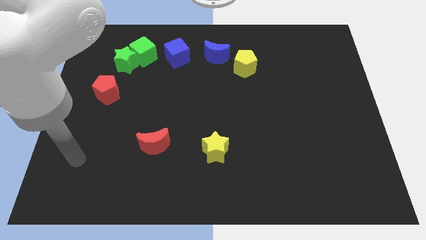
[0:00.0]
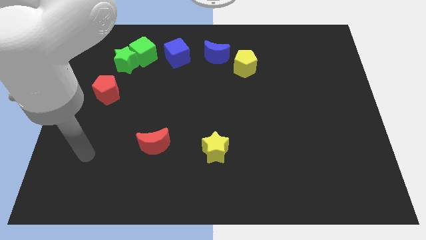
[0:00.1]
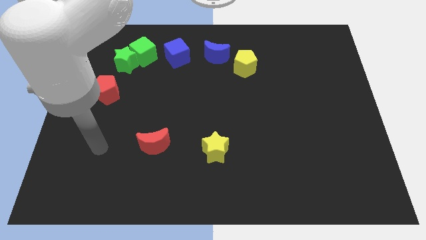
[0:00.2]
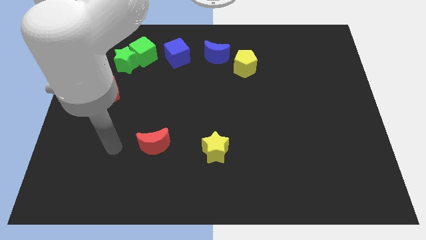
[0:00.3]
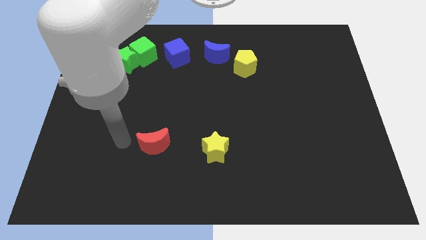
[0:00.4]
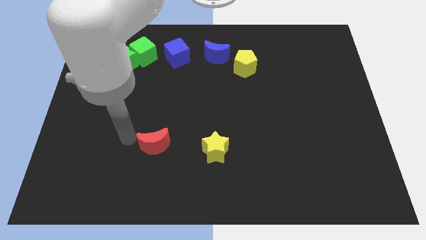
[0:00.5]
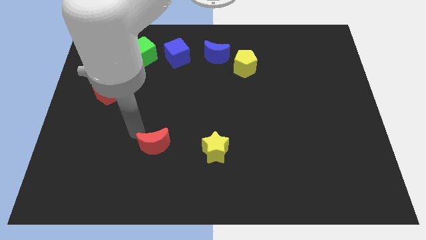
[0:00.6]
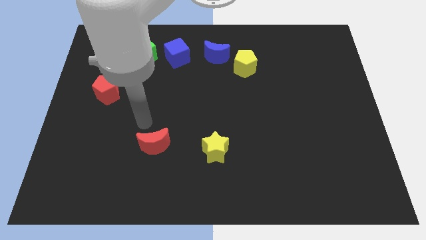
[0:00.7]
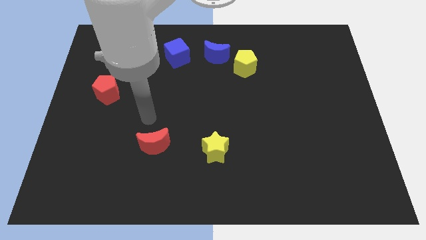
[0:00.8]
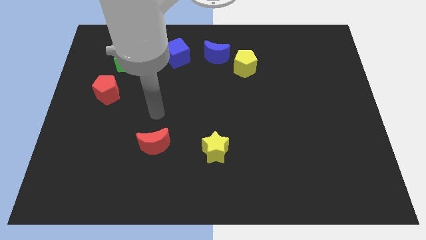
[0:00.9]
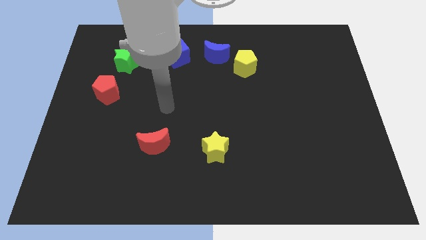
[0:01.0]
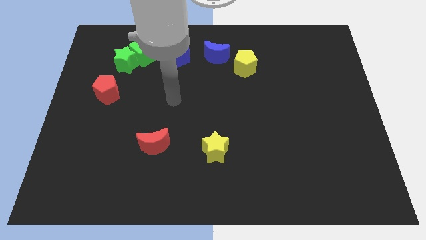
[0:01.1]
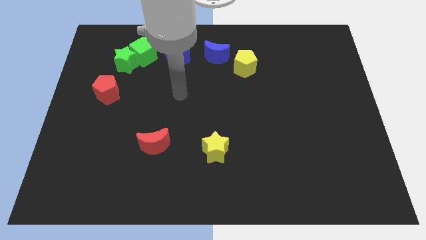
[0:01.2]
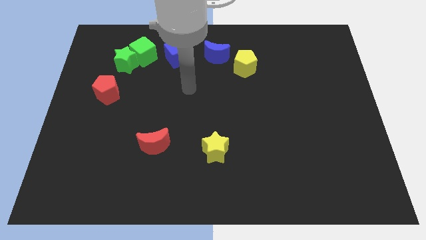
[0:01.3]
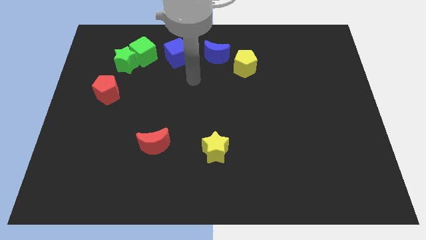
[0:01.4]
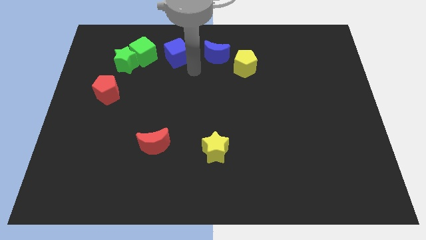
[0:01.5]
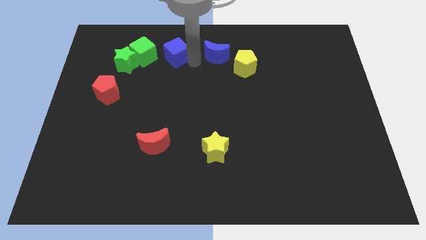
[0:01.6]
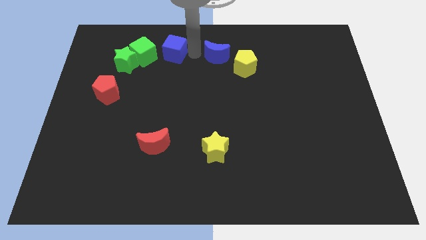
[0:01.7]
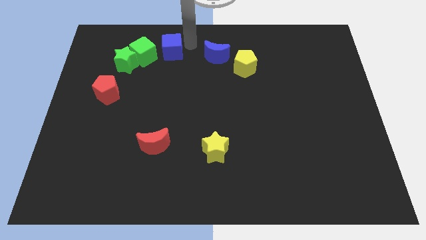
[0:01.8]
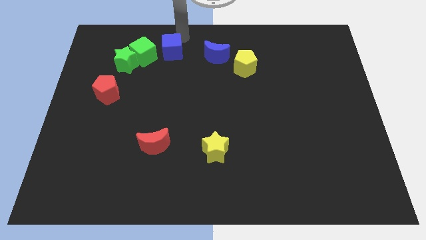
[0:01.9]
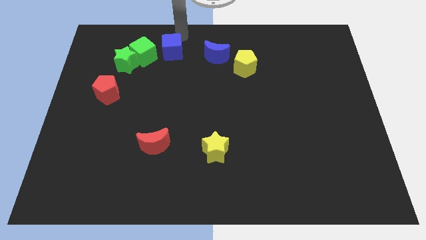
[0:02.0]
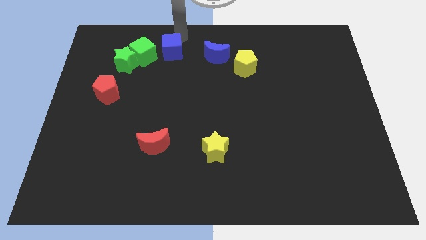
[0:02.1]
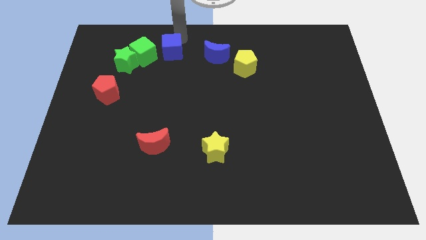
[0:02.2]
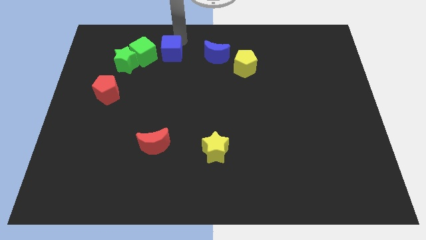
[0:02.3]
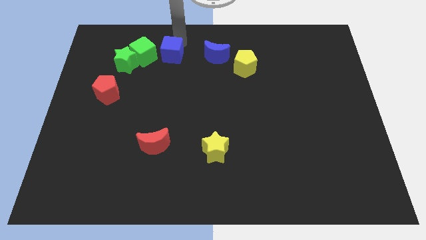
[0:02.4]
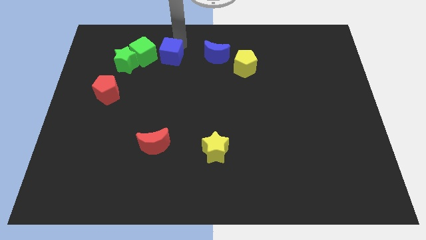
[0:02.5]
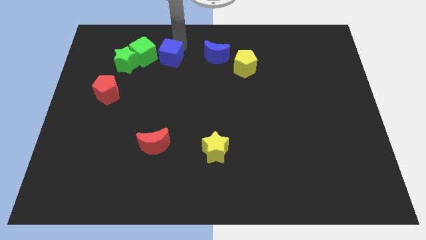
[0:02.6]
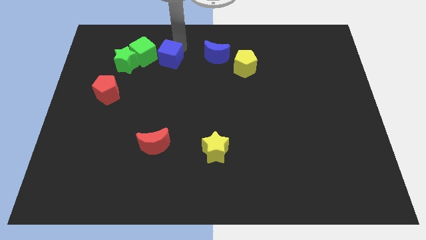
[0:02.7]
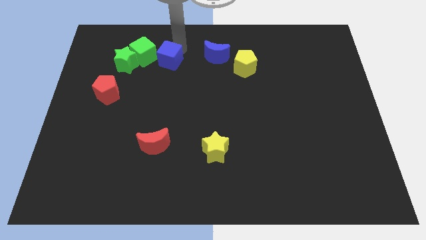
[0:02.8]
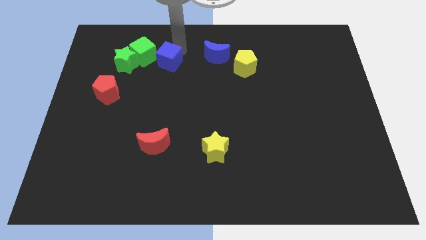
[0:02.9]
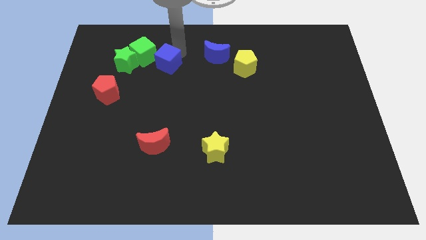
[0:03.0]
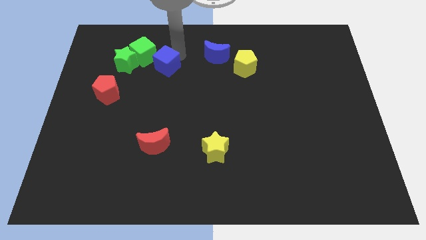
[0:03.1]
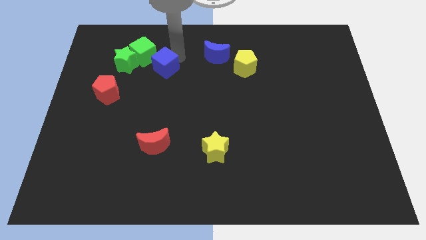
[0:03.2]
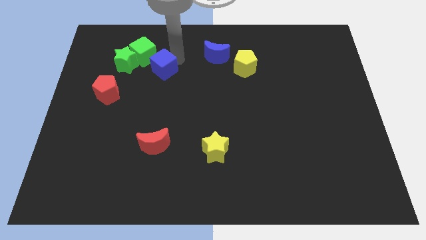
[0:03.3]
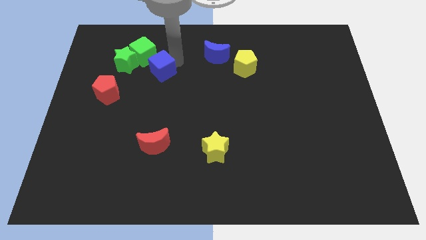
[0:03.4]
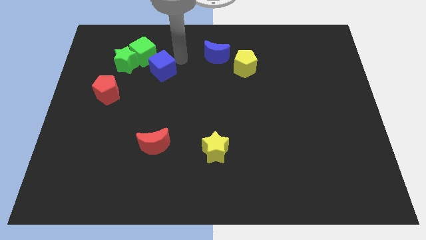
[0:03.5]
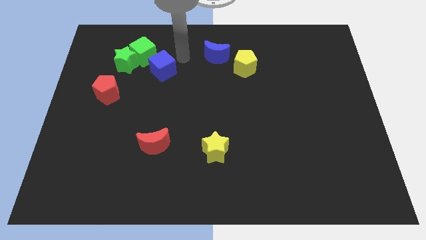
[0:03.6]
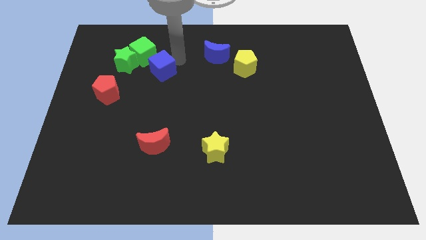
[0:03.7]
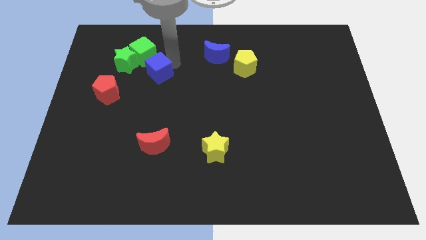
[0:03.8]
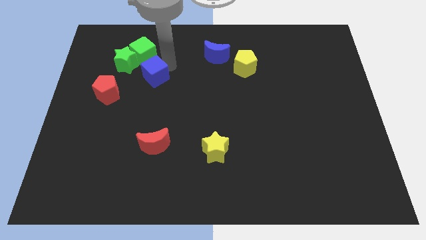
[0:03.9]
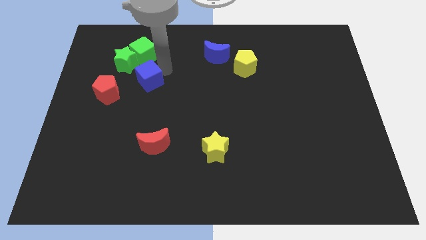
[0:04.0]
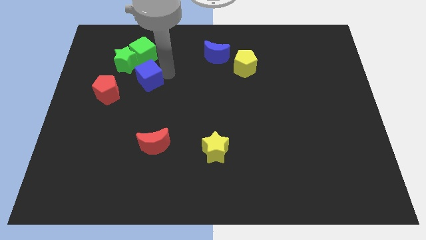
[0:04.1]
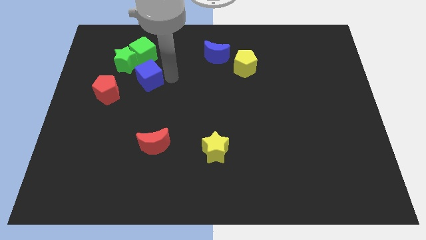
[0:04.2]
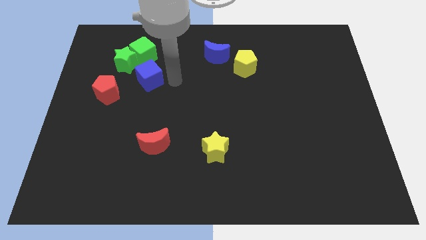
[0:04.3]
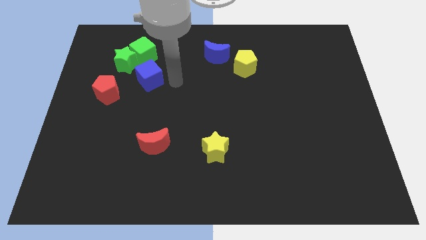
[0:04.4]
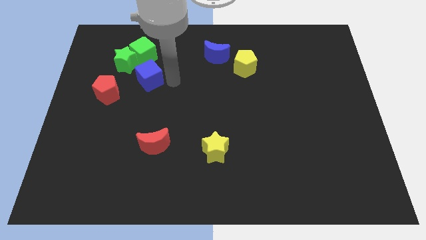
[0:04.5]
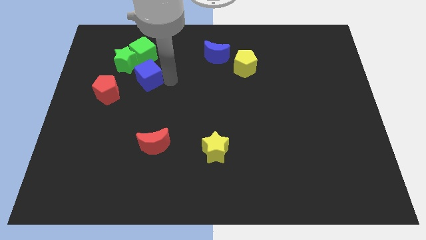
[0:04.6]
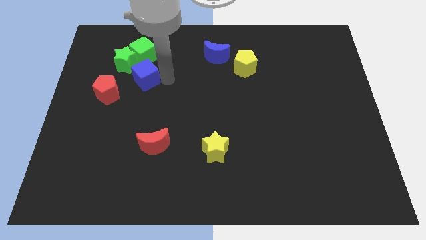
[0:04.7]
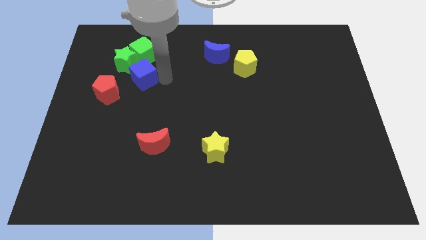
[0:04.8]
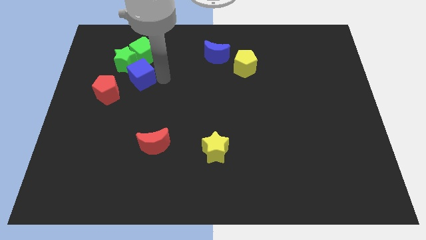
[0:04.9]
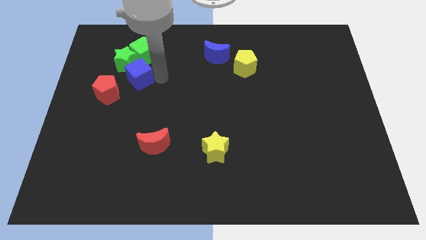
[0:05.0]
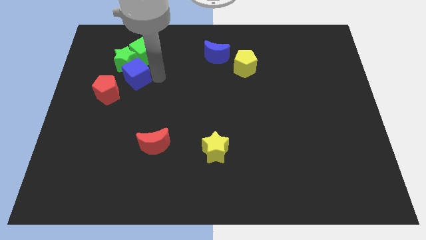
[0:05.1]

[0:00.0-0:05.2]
push the blue cube towards the green star

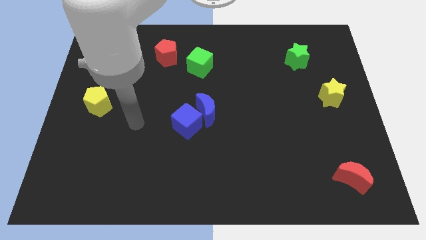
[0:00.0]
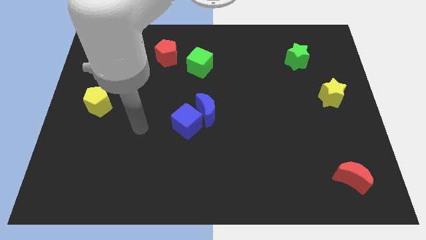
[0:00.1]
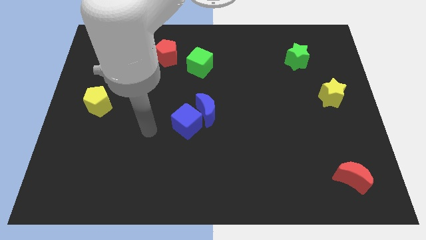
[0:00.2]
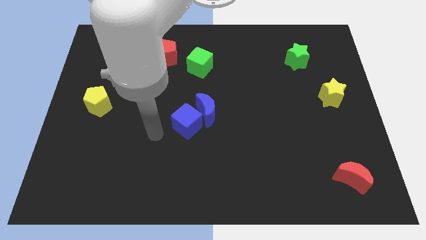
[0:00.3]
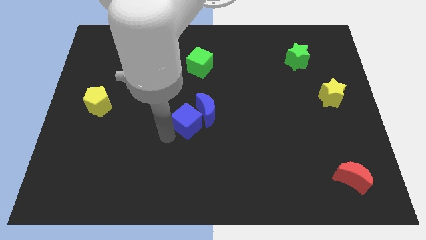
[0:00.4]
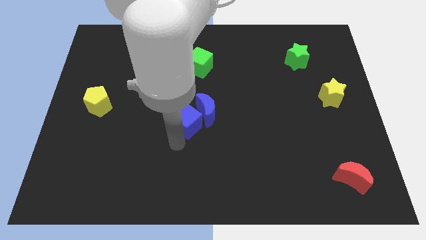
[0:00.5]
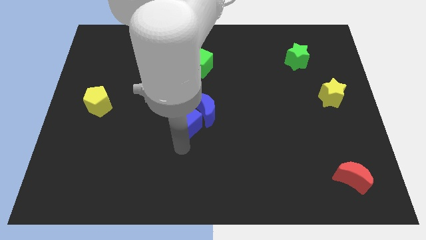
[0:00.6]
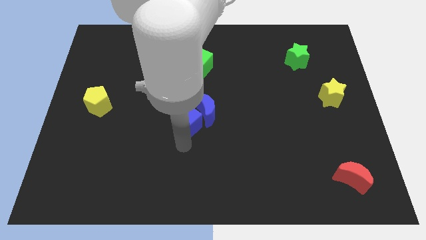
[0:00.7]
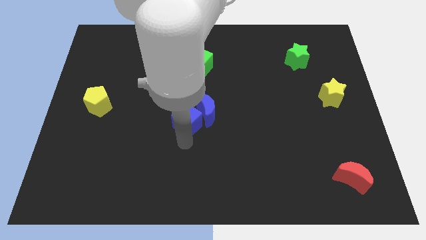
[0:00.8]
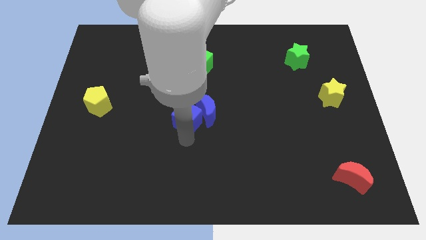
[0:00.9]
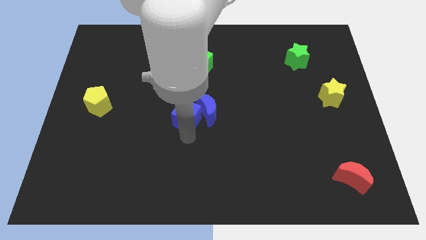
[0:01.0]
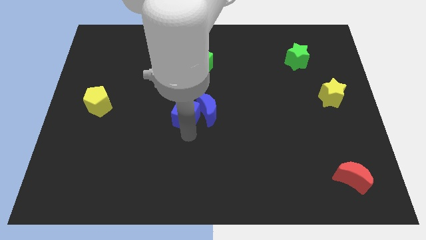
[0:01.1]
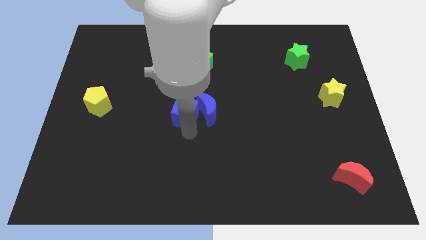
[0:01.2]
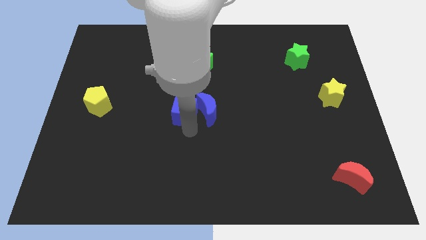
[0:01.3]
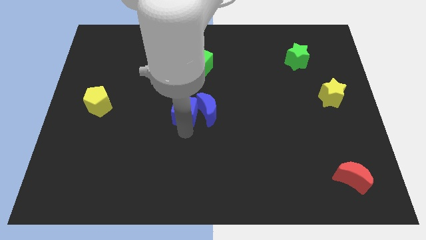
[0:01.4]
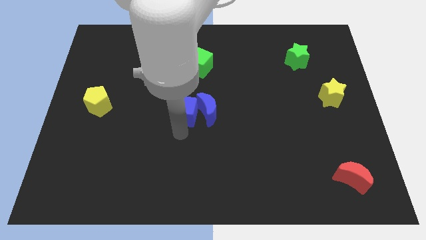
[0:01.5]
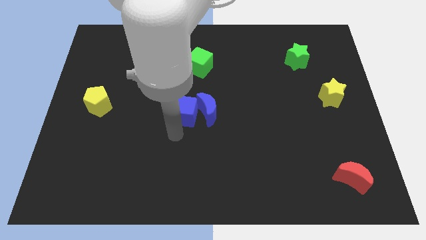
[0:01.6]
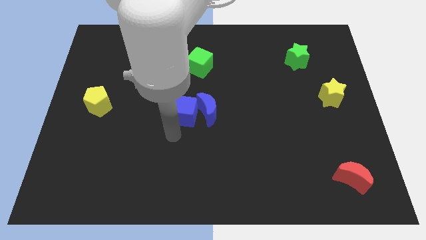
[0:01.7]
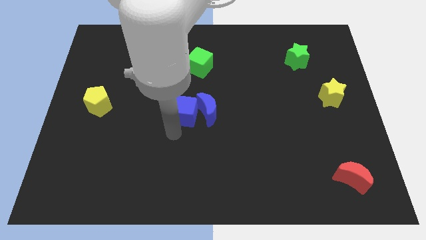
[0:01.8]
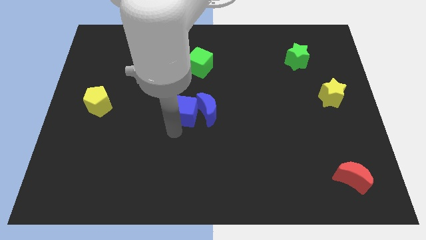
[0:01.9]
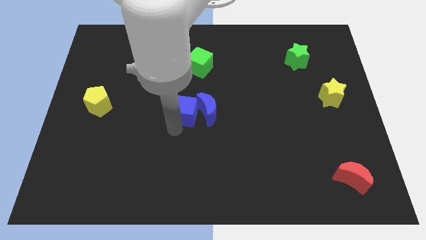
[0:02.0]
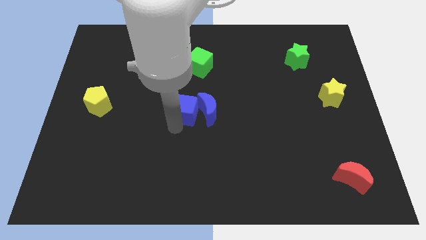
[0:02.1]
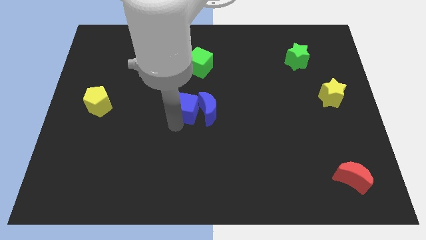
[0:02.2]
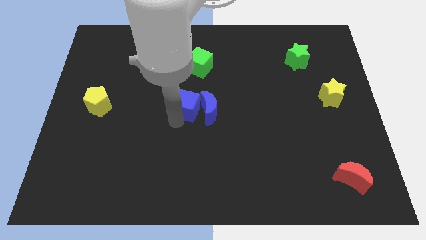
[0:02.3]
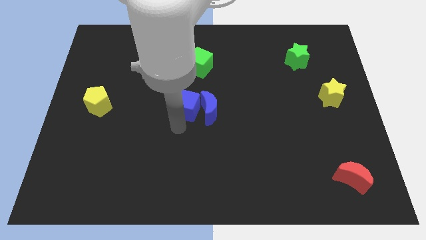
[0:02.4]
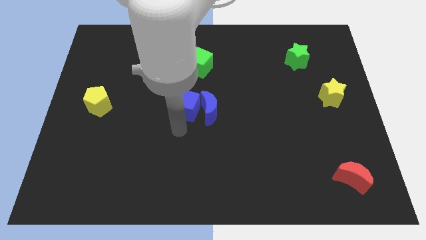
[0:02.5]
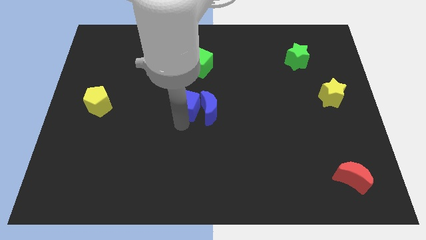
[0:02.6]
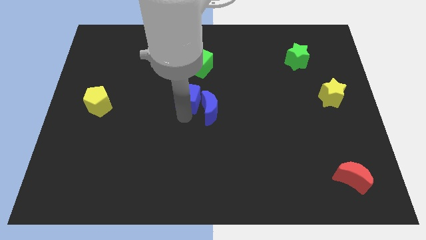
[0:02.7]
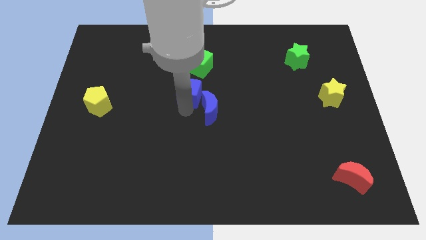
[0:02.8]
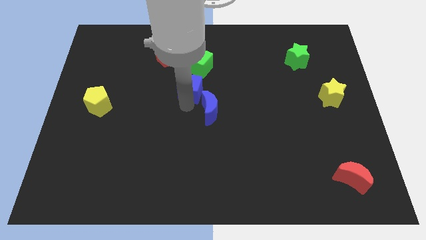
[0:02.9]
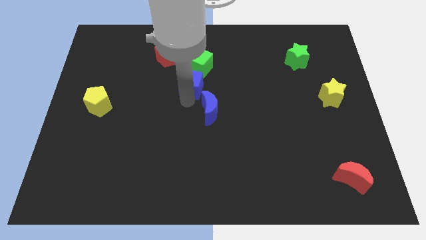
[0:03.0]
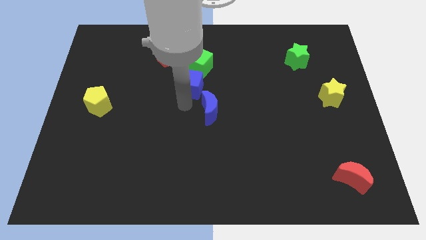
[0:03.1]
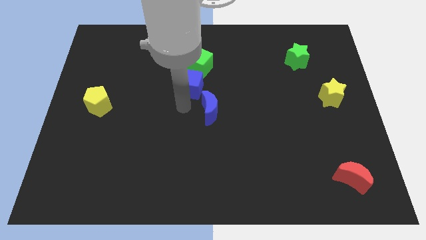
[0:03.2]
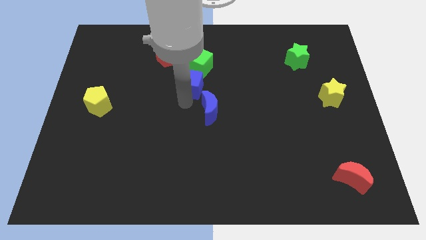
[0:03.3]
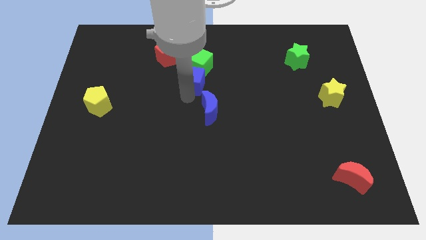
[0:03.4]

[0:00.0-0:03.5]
move the blue cube close to the green cube
